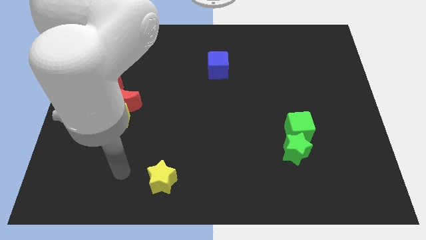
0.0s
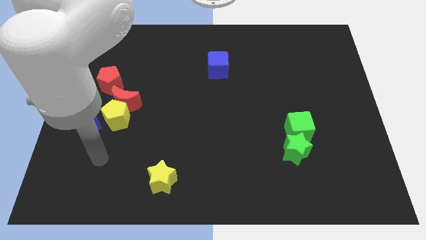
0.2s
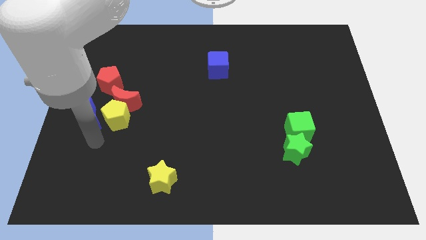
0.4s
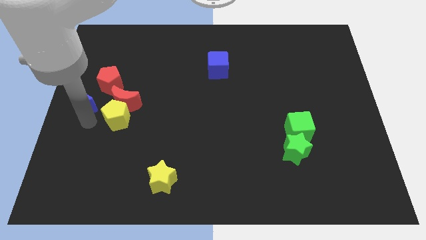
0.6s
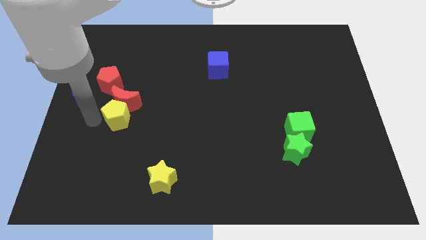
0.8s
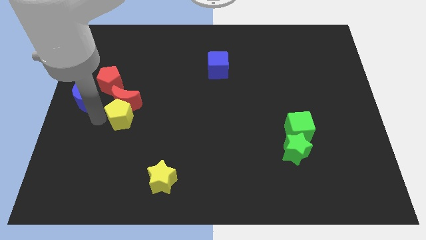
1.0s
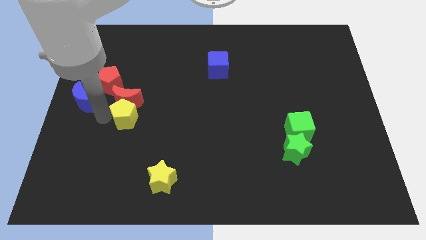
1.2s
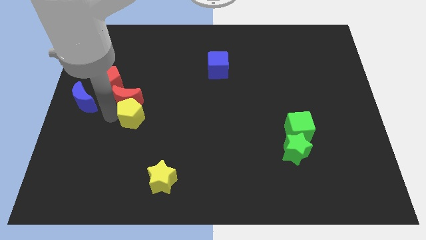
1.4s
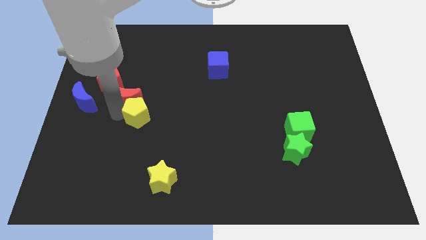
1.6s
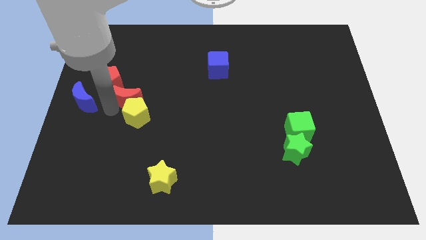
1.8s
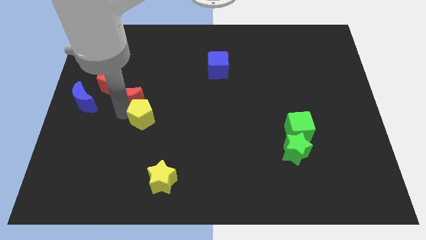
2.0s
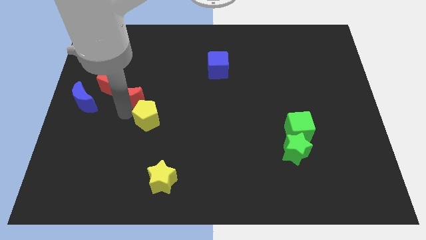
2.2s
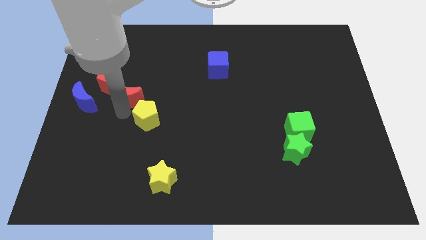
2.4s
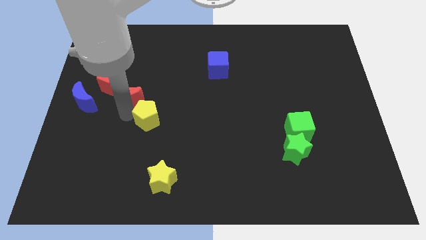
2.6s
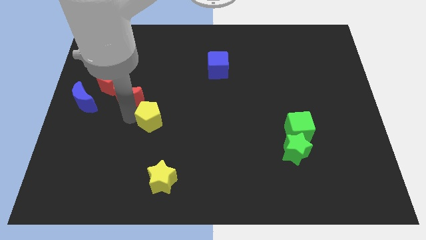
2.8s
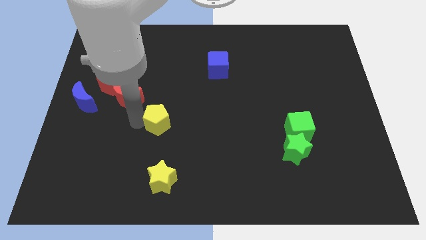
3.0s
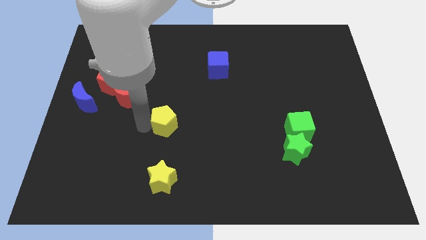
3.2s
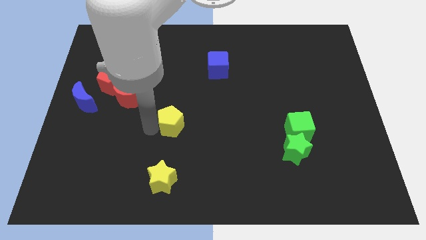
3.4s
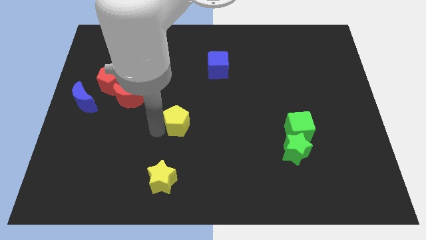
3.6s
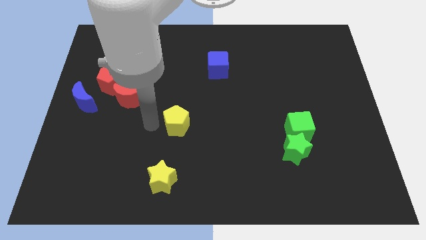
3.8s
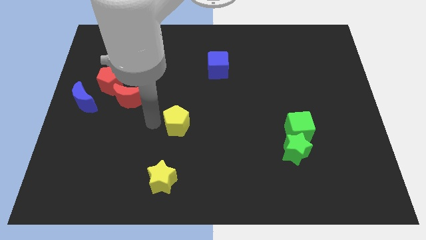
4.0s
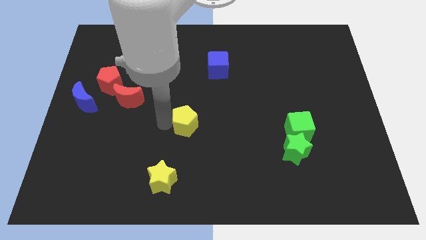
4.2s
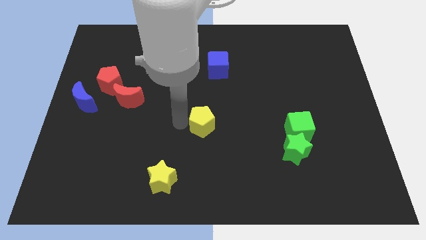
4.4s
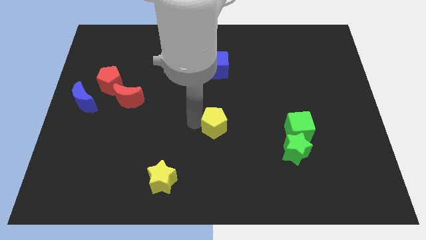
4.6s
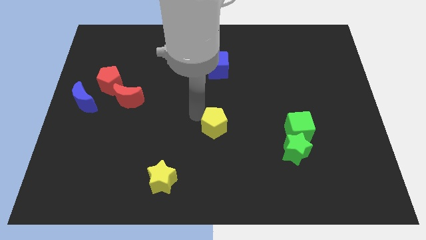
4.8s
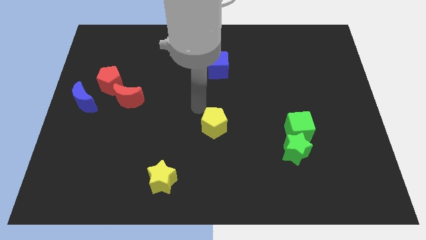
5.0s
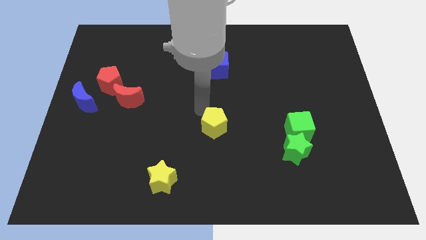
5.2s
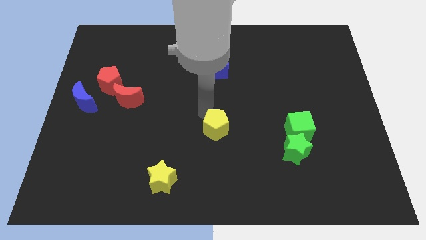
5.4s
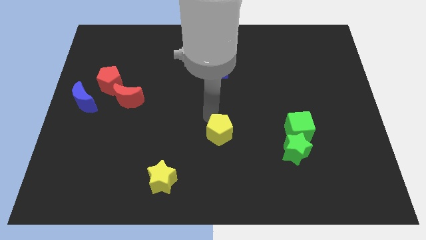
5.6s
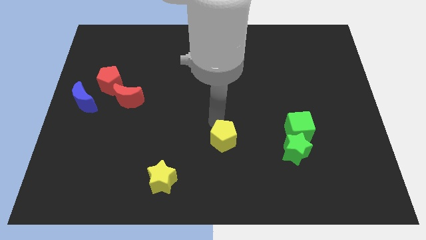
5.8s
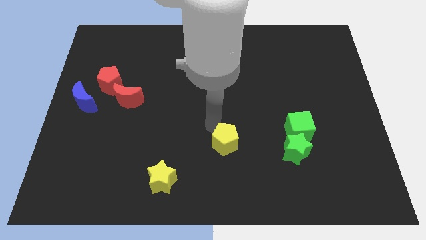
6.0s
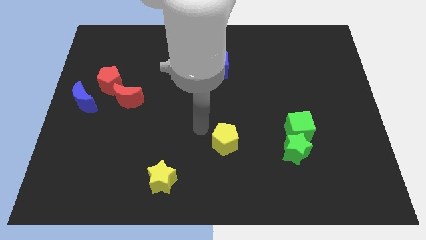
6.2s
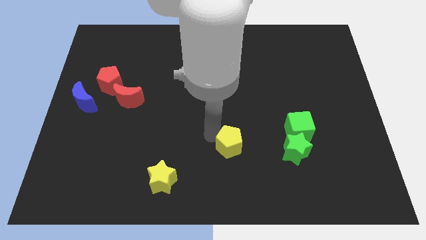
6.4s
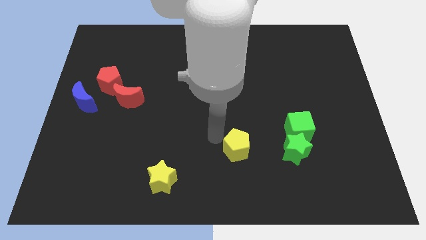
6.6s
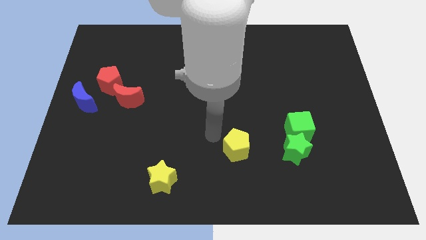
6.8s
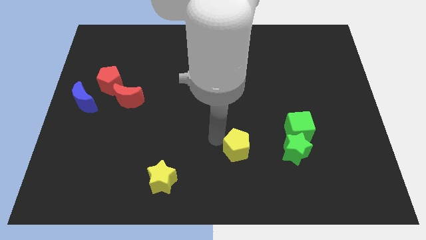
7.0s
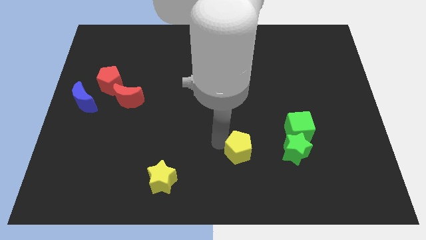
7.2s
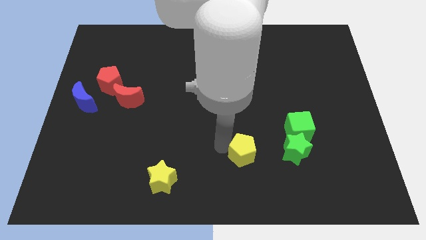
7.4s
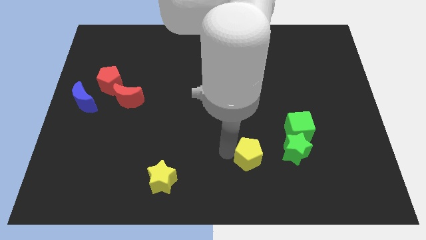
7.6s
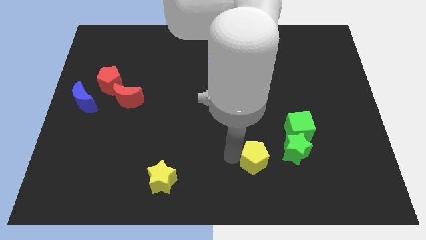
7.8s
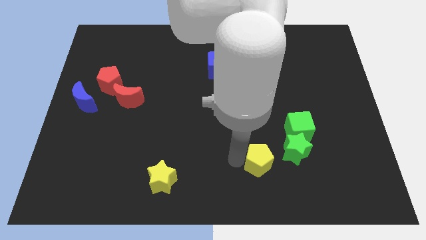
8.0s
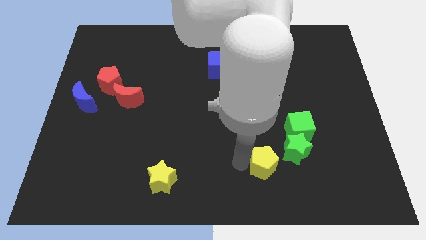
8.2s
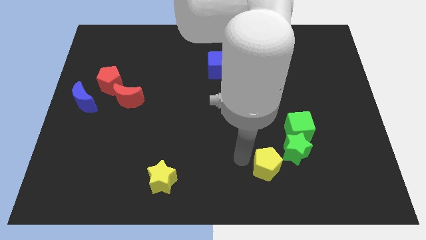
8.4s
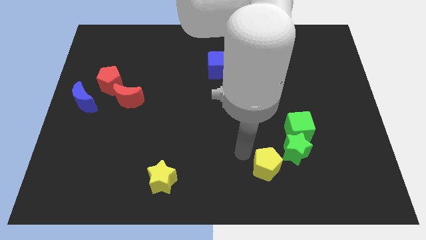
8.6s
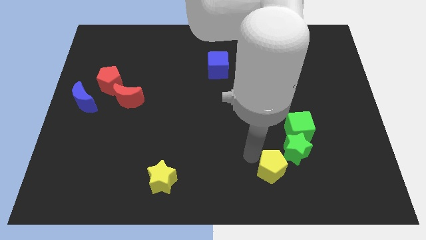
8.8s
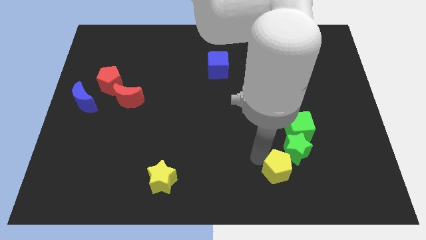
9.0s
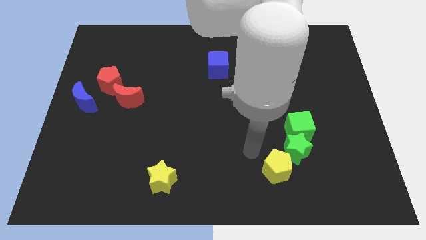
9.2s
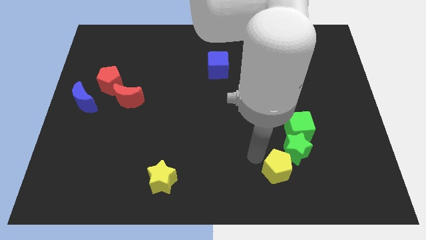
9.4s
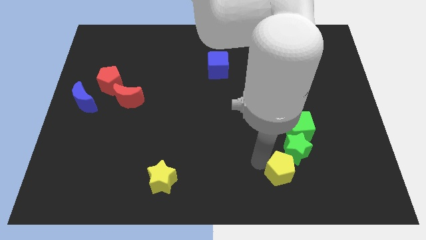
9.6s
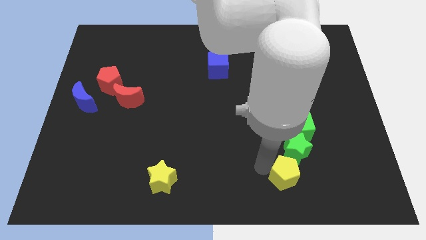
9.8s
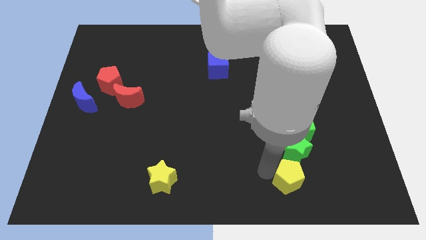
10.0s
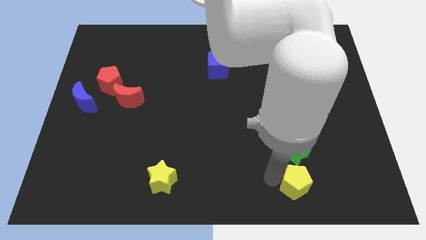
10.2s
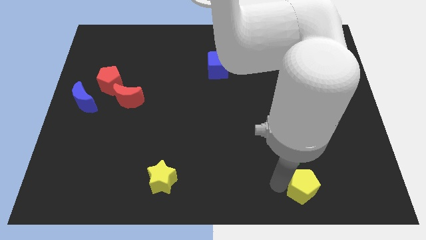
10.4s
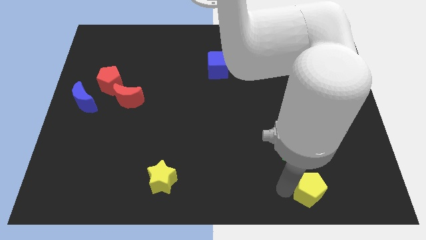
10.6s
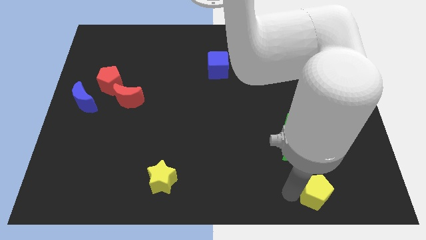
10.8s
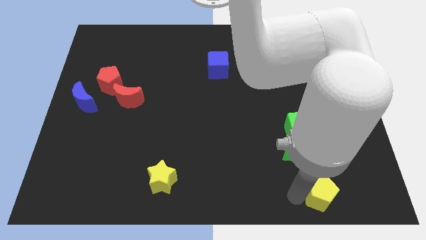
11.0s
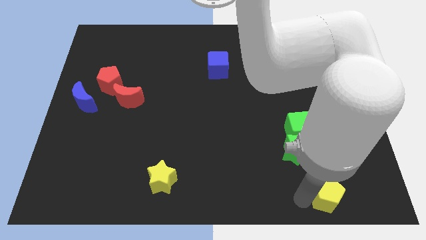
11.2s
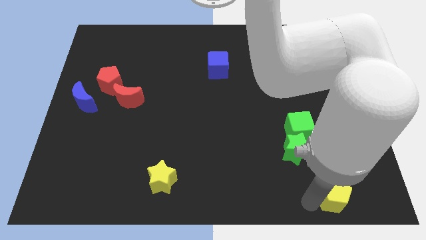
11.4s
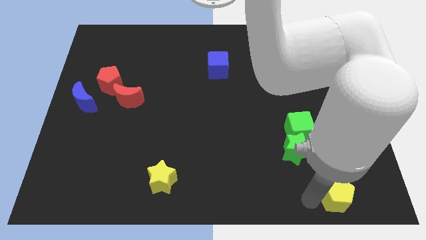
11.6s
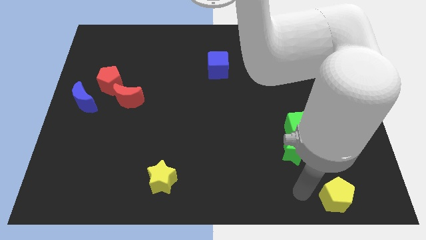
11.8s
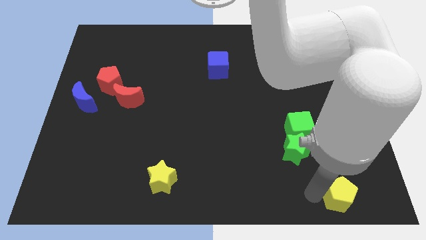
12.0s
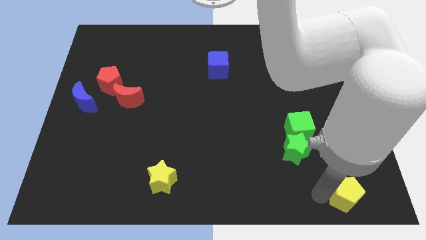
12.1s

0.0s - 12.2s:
slide the yellow pentagon to the bottom right of the board
